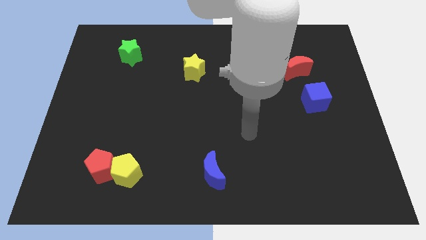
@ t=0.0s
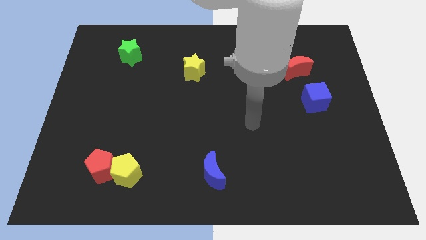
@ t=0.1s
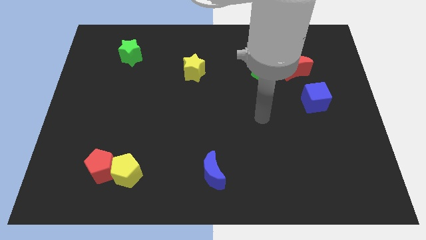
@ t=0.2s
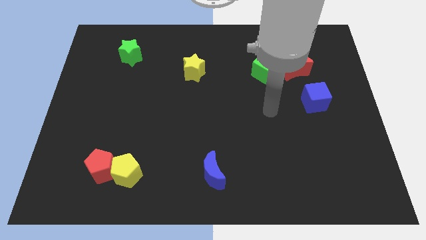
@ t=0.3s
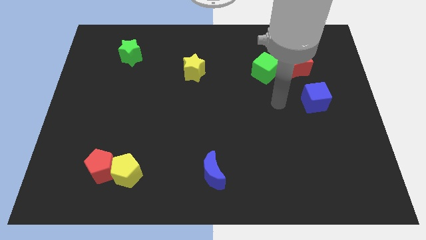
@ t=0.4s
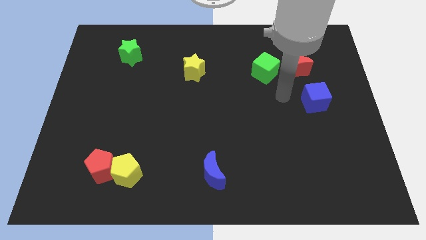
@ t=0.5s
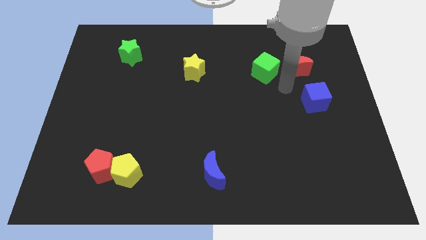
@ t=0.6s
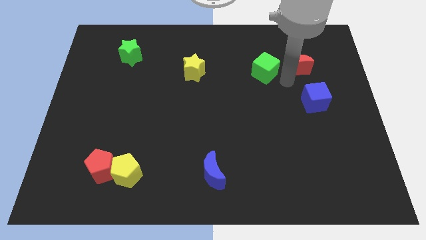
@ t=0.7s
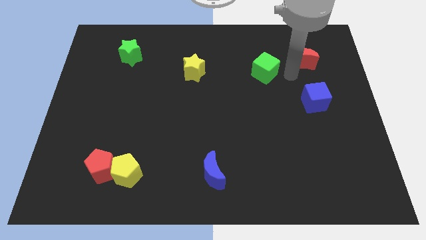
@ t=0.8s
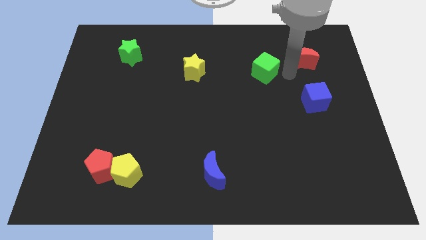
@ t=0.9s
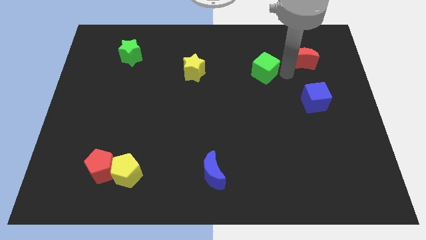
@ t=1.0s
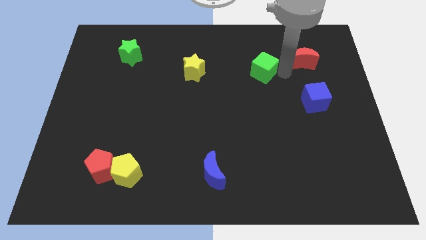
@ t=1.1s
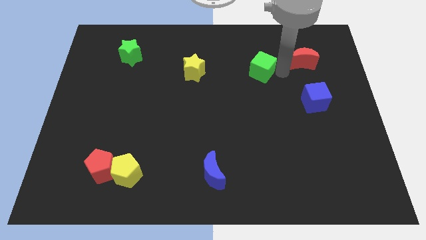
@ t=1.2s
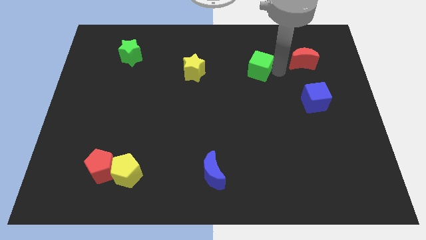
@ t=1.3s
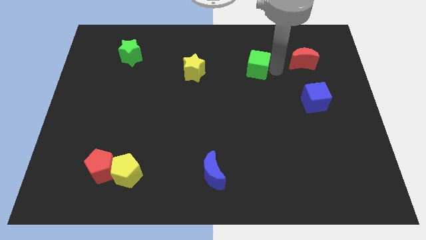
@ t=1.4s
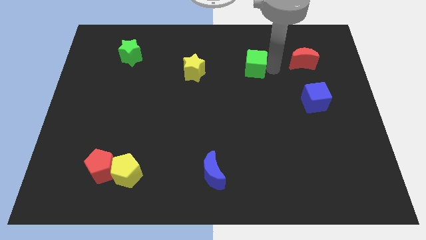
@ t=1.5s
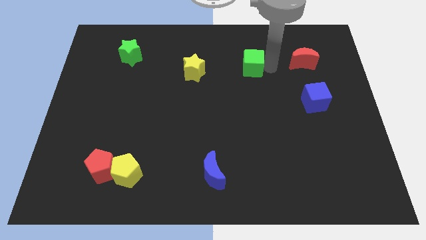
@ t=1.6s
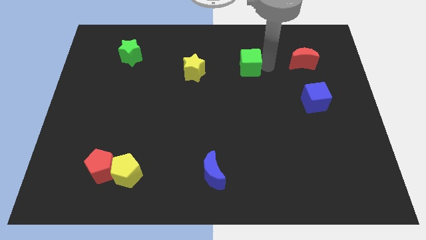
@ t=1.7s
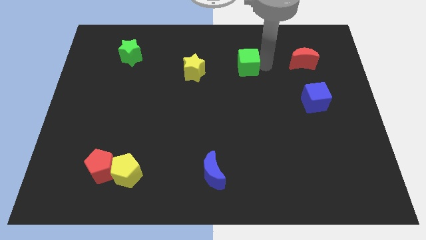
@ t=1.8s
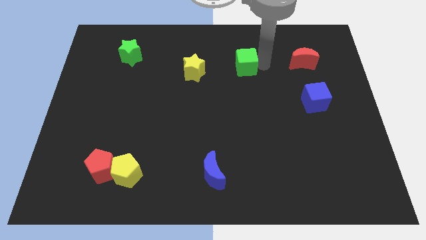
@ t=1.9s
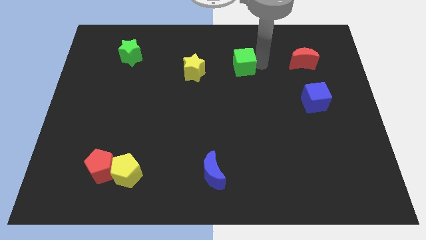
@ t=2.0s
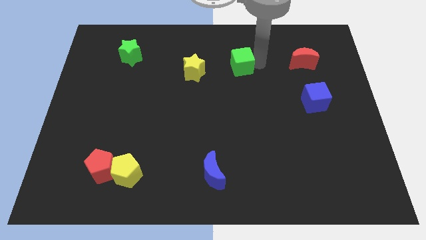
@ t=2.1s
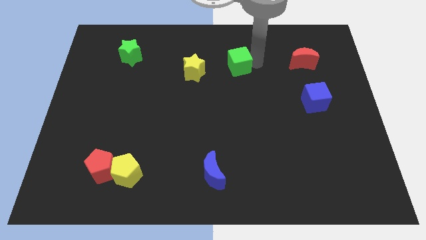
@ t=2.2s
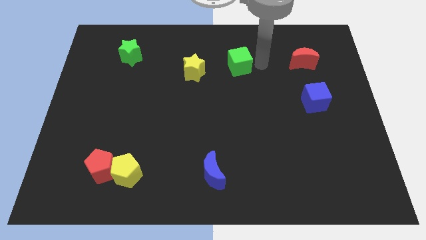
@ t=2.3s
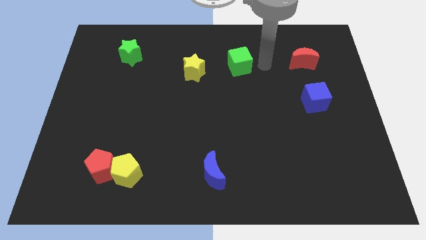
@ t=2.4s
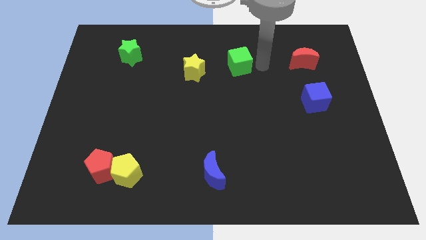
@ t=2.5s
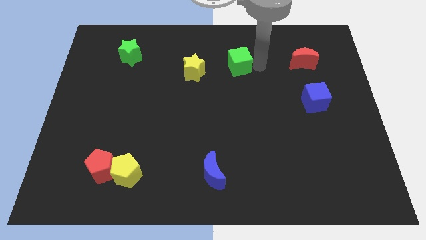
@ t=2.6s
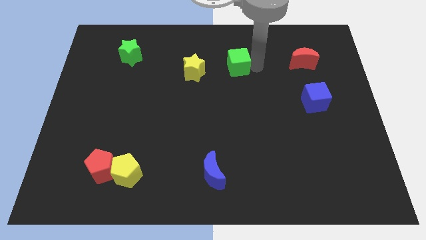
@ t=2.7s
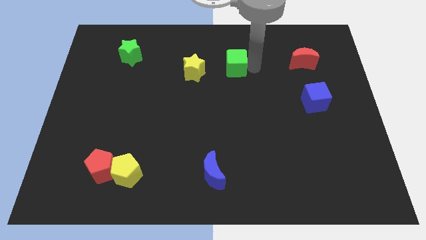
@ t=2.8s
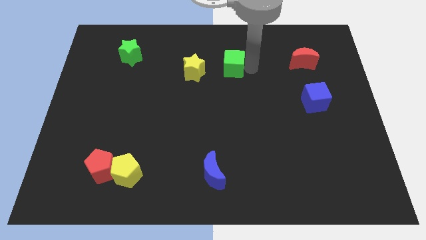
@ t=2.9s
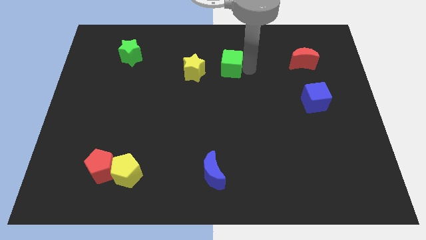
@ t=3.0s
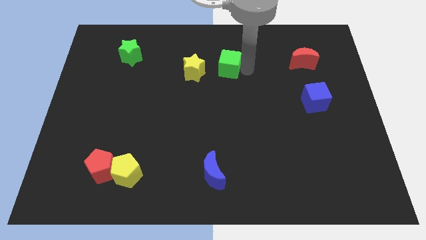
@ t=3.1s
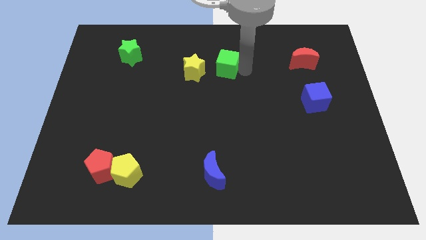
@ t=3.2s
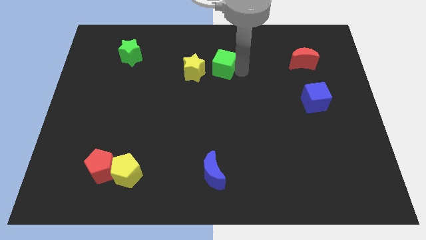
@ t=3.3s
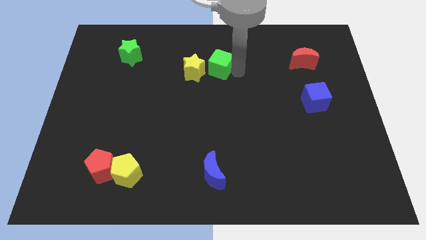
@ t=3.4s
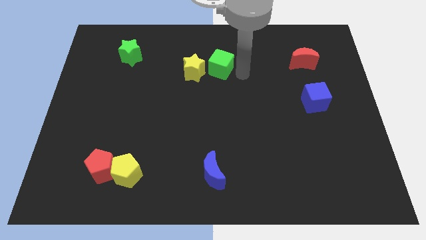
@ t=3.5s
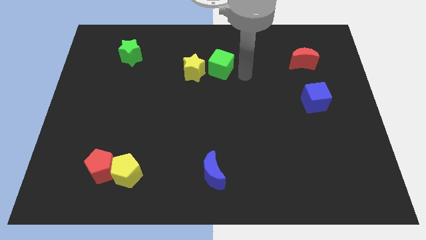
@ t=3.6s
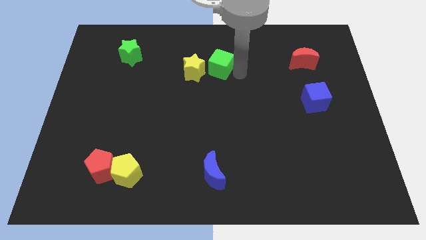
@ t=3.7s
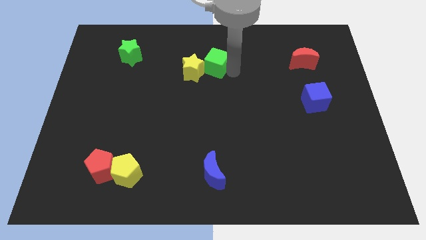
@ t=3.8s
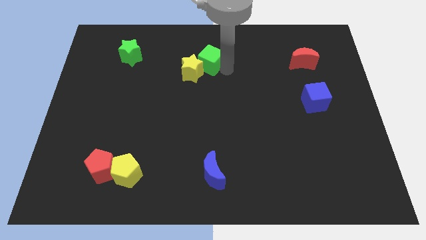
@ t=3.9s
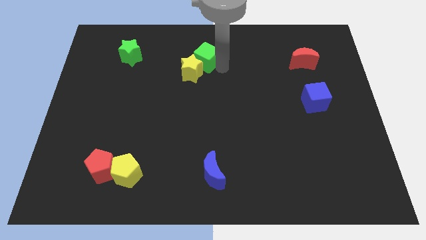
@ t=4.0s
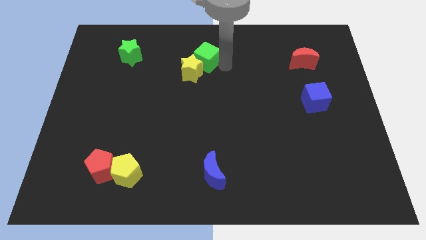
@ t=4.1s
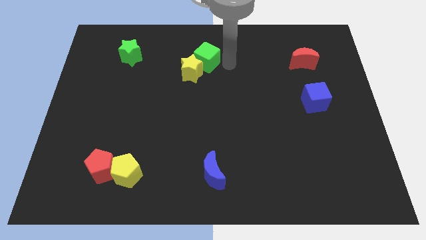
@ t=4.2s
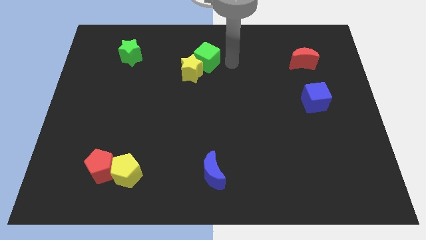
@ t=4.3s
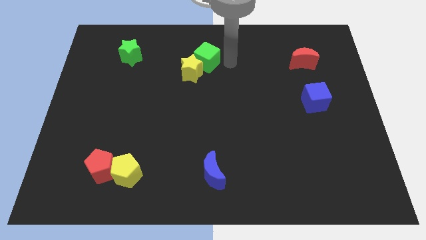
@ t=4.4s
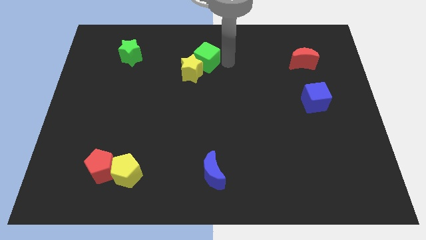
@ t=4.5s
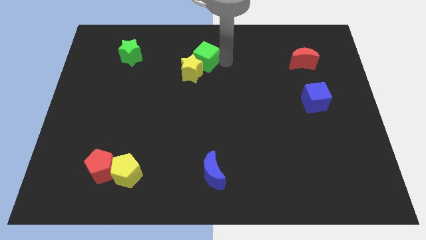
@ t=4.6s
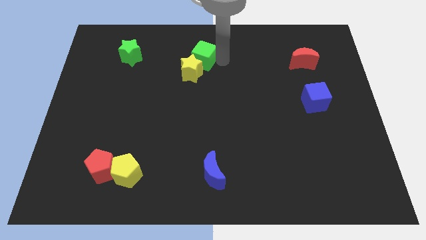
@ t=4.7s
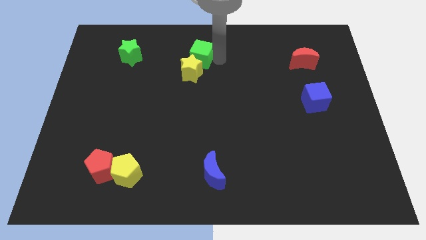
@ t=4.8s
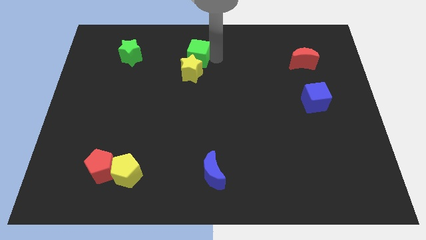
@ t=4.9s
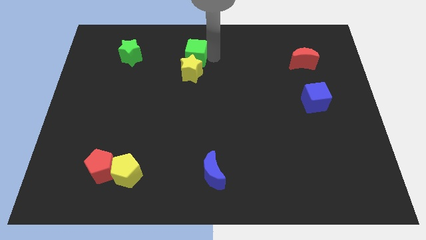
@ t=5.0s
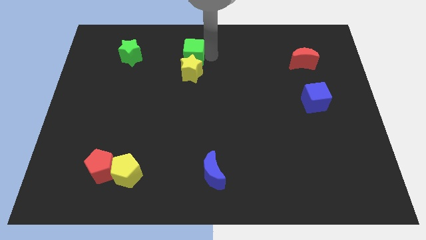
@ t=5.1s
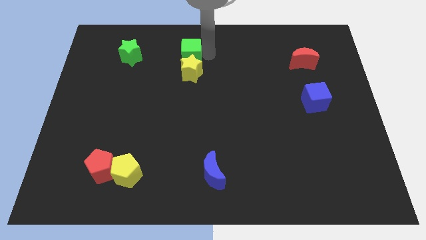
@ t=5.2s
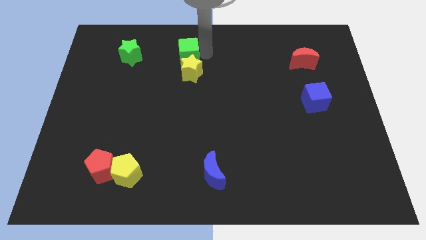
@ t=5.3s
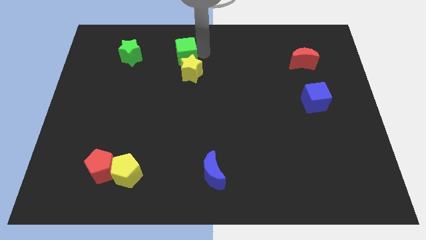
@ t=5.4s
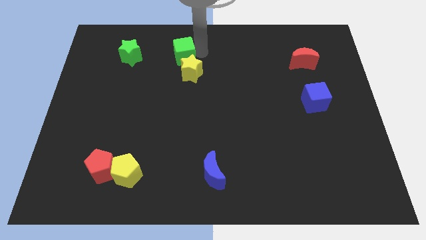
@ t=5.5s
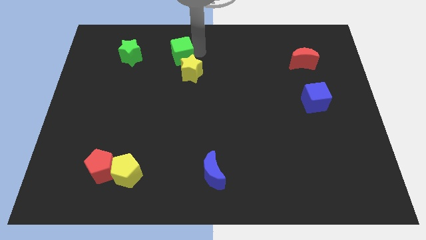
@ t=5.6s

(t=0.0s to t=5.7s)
move the green cube left

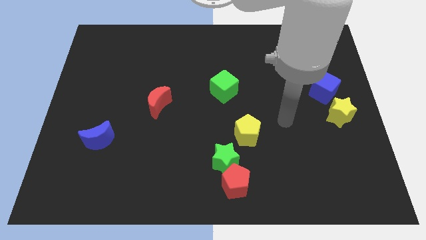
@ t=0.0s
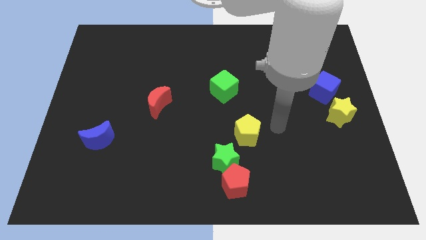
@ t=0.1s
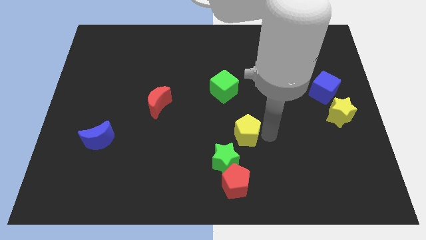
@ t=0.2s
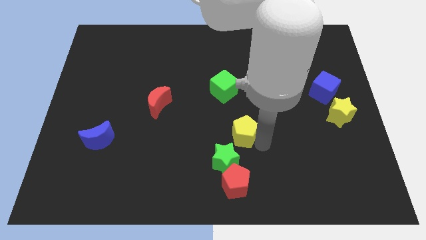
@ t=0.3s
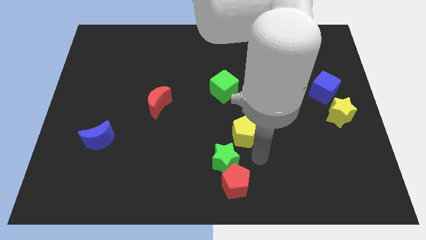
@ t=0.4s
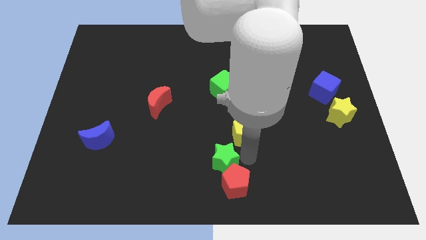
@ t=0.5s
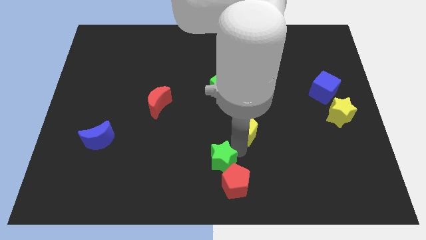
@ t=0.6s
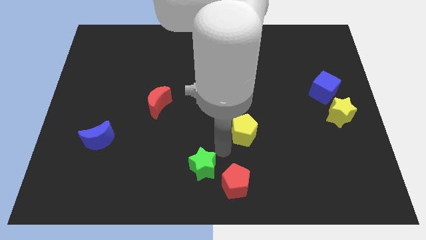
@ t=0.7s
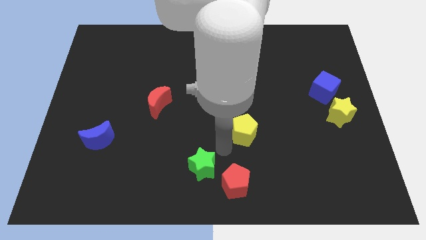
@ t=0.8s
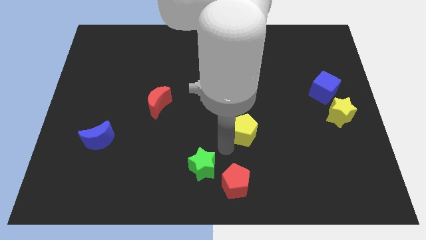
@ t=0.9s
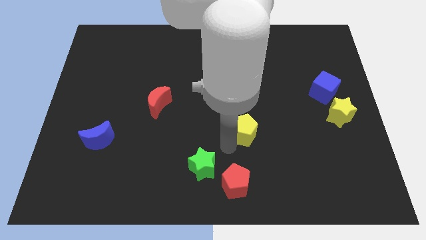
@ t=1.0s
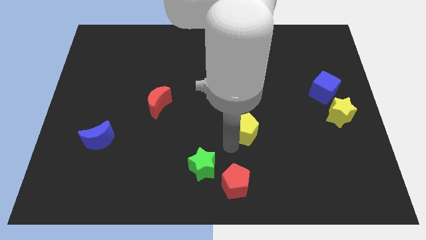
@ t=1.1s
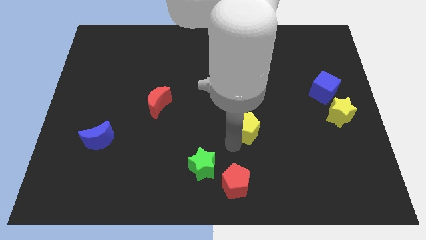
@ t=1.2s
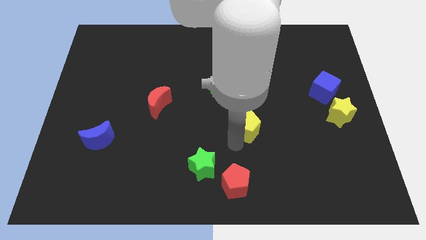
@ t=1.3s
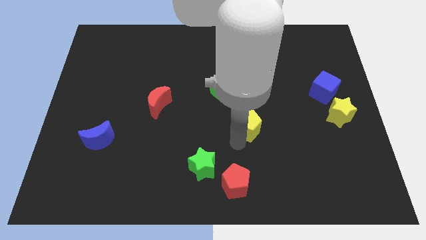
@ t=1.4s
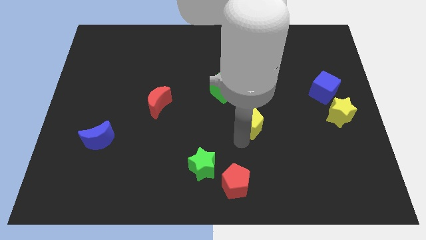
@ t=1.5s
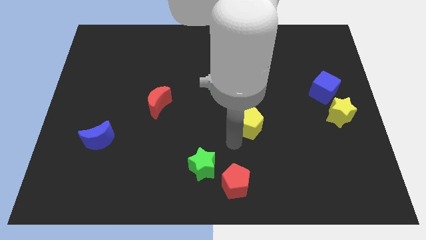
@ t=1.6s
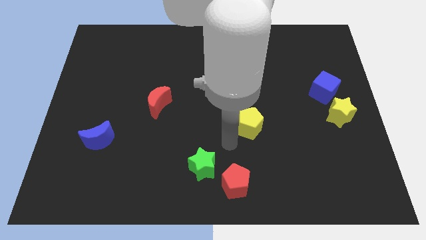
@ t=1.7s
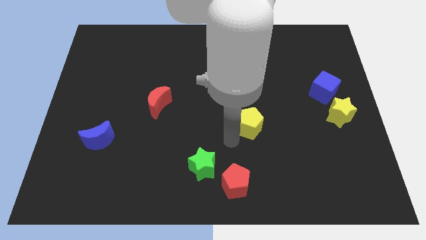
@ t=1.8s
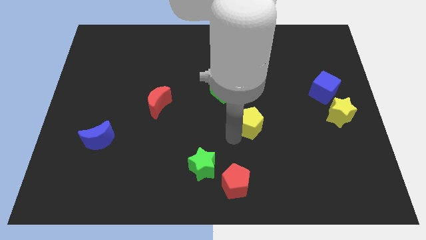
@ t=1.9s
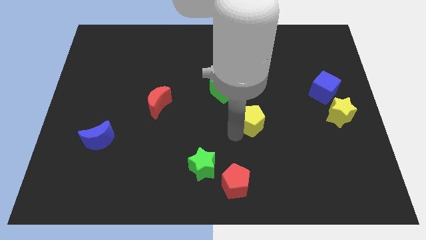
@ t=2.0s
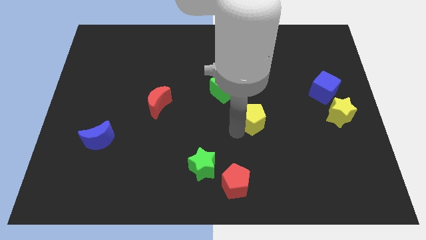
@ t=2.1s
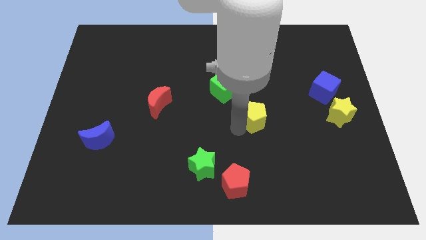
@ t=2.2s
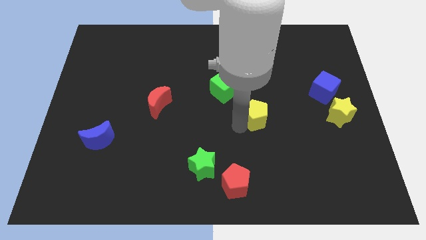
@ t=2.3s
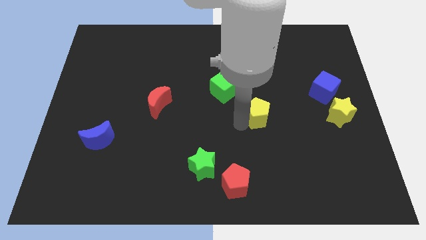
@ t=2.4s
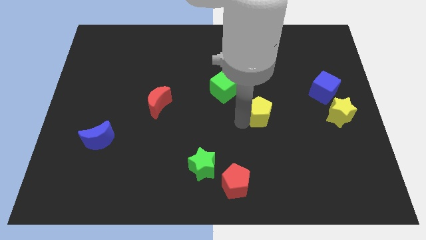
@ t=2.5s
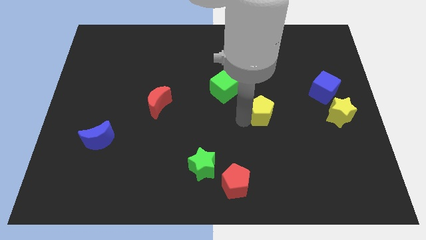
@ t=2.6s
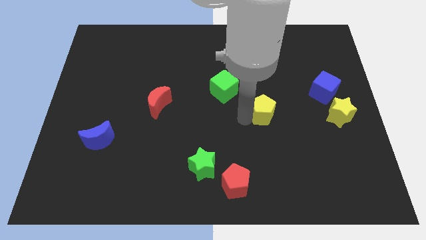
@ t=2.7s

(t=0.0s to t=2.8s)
slightly move the yellow pentagon upwards and right diagonally
